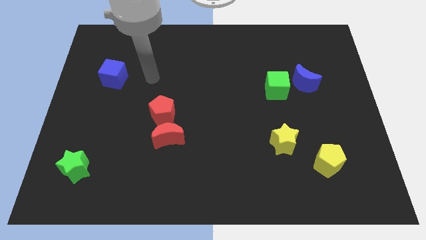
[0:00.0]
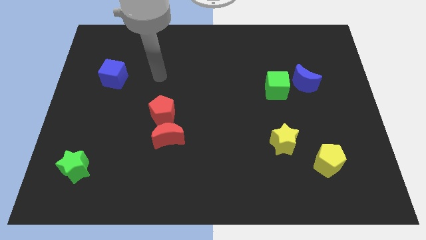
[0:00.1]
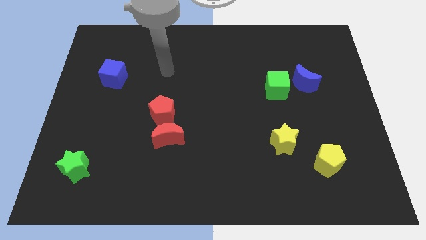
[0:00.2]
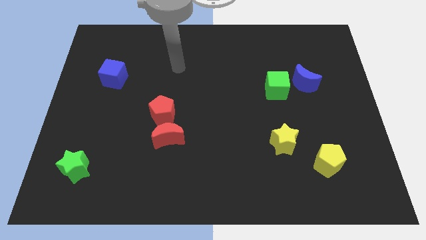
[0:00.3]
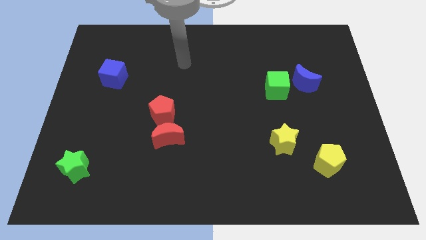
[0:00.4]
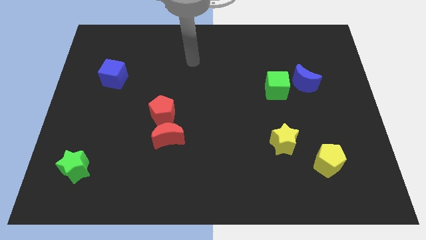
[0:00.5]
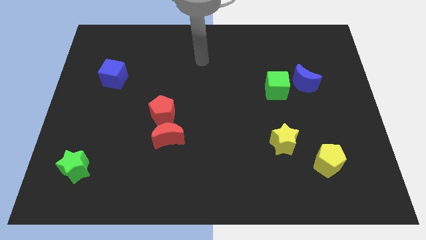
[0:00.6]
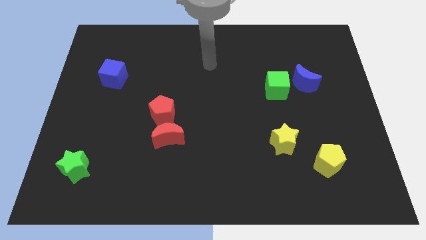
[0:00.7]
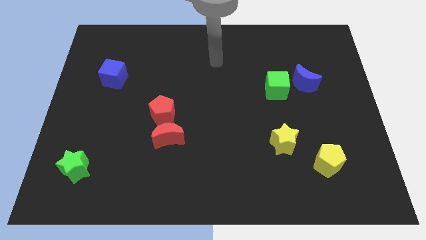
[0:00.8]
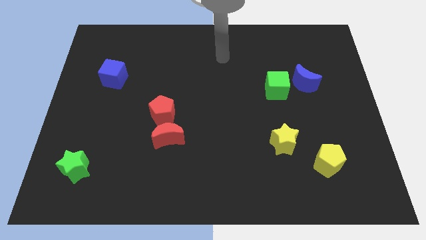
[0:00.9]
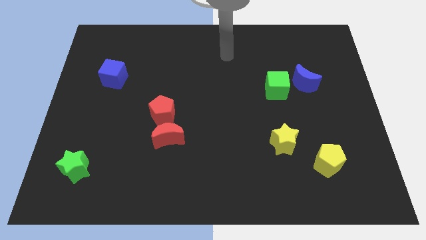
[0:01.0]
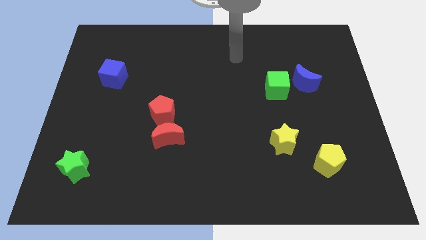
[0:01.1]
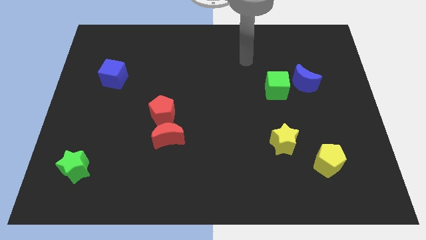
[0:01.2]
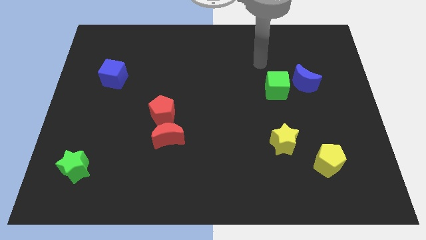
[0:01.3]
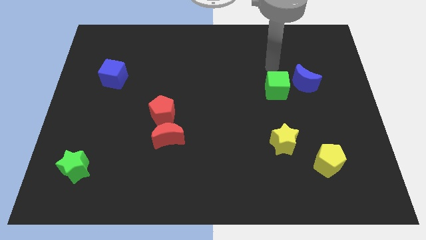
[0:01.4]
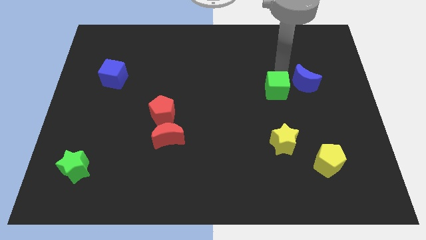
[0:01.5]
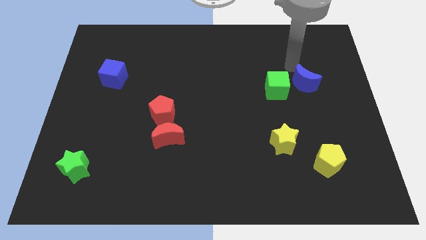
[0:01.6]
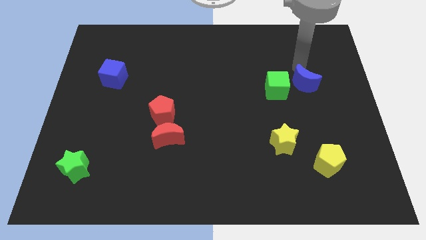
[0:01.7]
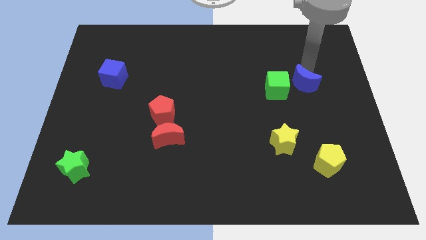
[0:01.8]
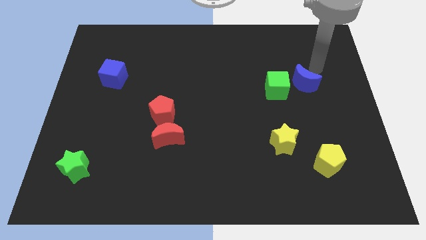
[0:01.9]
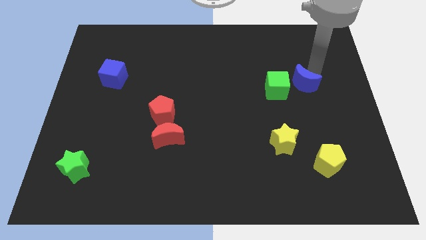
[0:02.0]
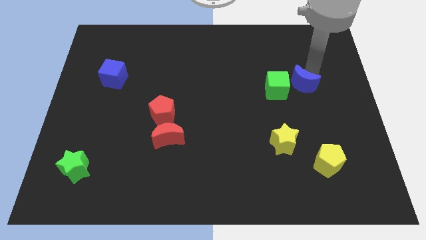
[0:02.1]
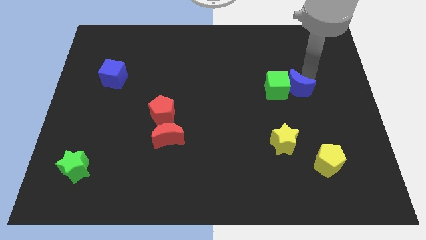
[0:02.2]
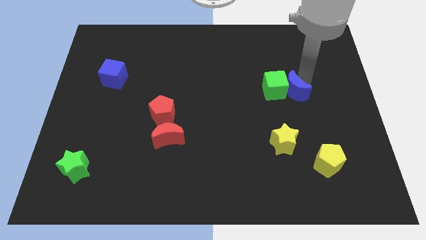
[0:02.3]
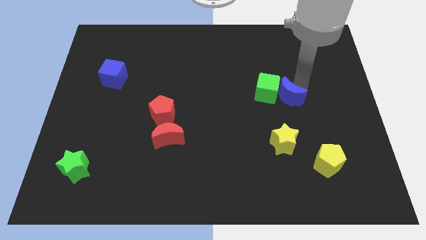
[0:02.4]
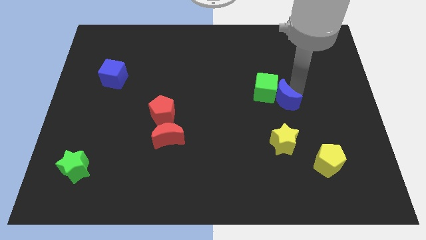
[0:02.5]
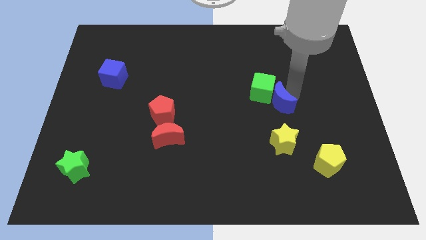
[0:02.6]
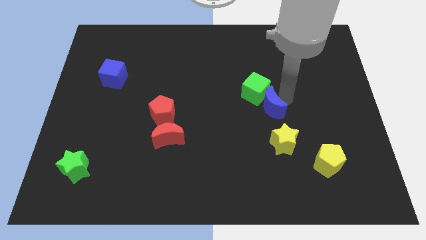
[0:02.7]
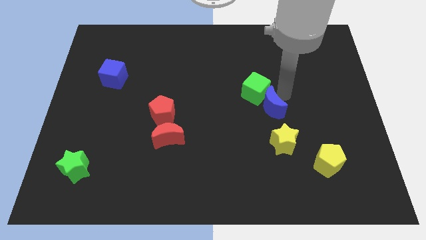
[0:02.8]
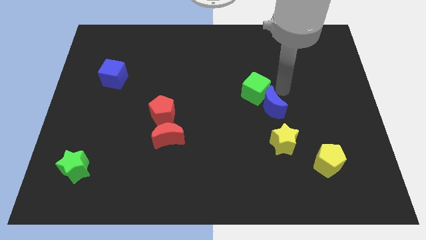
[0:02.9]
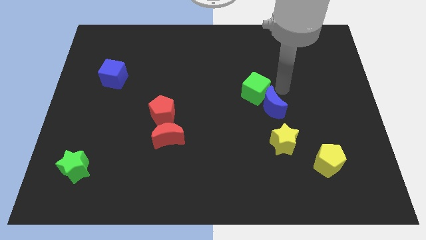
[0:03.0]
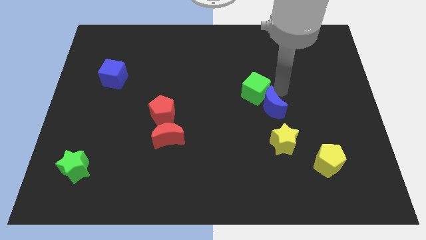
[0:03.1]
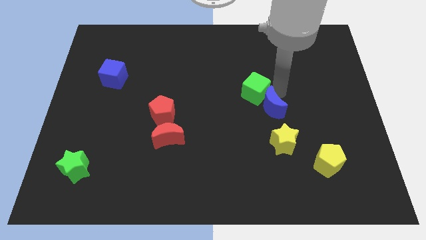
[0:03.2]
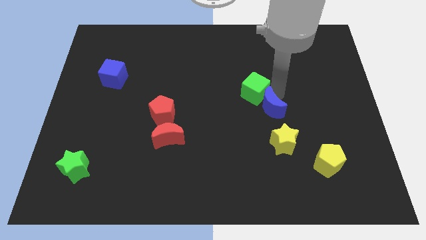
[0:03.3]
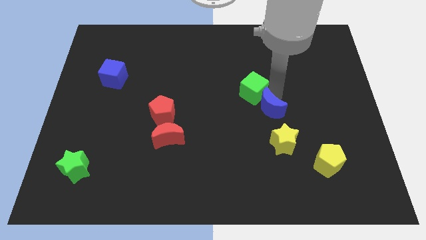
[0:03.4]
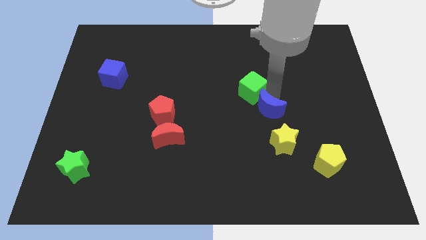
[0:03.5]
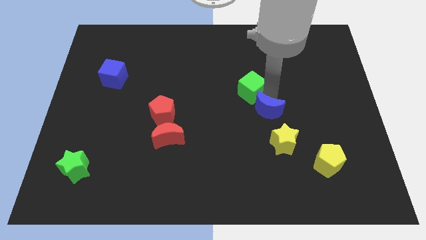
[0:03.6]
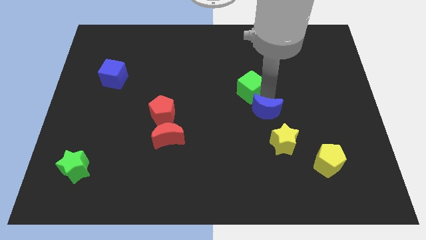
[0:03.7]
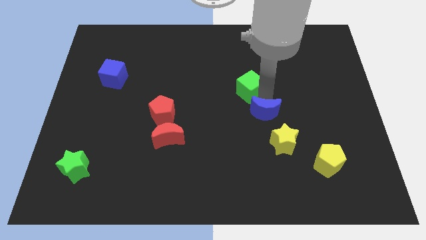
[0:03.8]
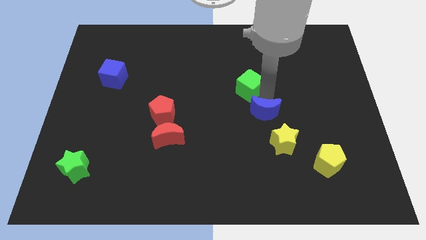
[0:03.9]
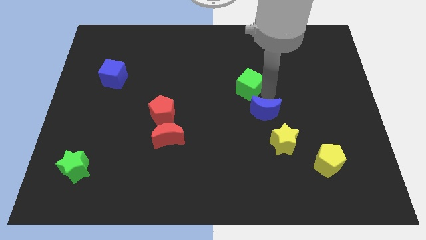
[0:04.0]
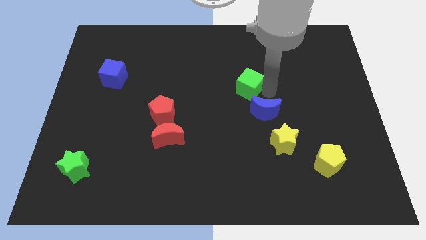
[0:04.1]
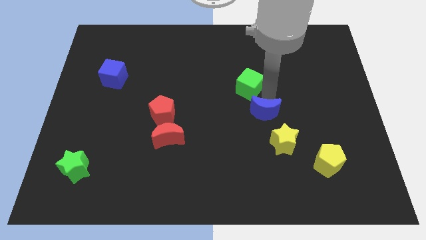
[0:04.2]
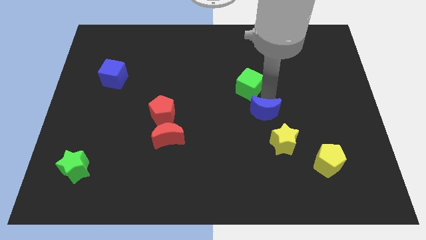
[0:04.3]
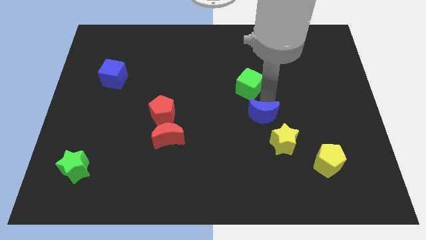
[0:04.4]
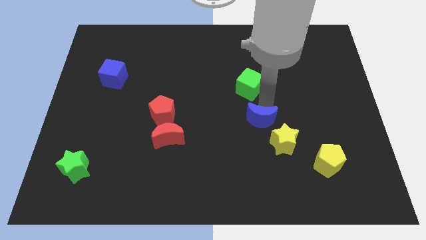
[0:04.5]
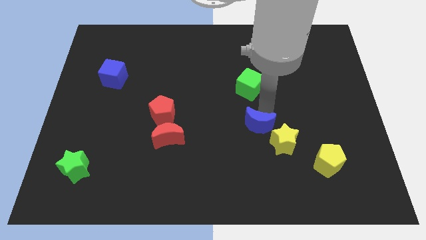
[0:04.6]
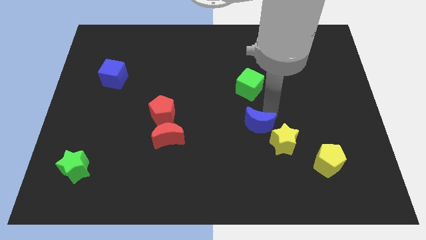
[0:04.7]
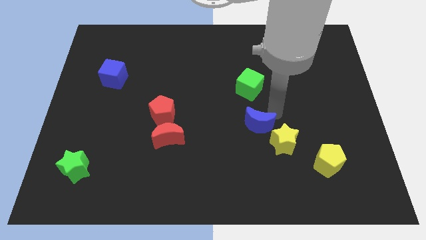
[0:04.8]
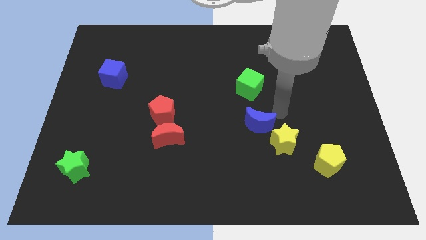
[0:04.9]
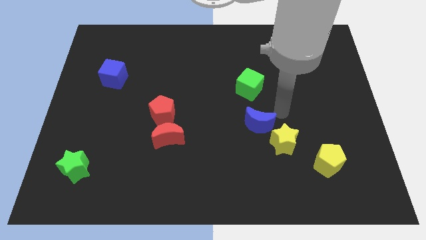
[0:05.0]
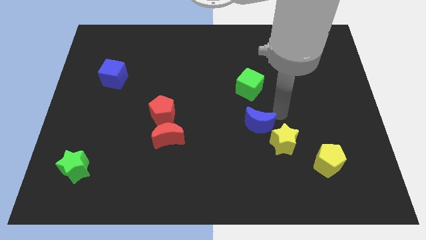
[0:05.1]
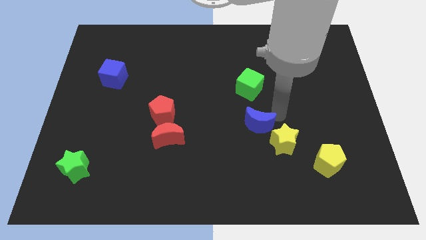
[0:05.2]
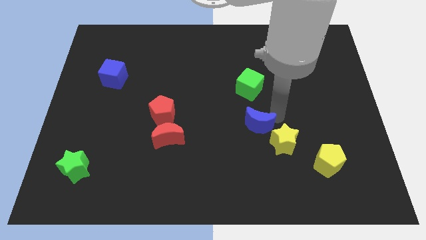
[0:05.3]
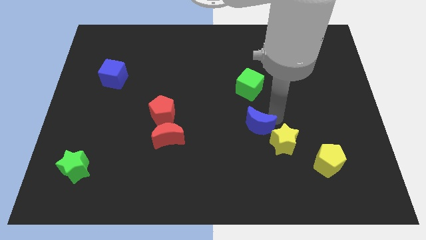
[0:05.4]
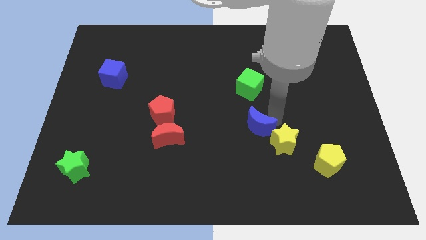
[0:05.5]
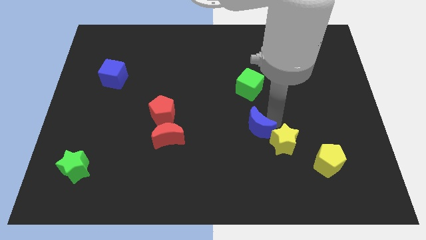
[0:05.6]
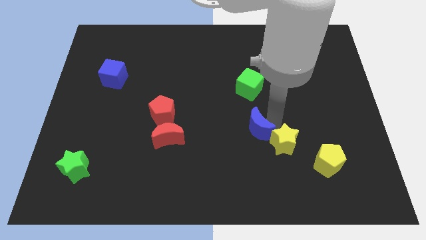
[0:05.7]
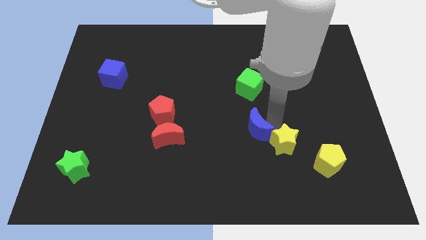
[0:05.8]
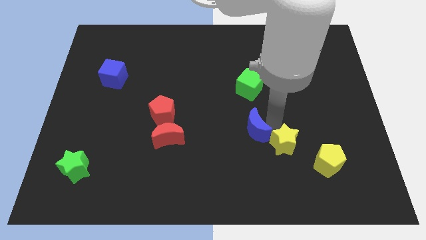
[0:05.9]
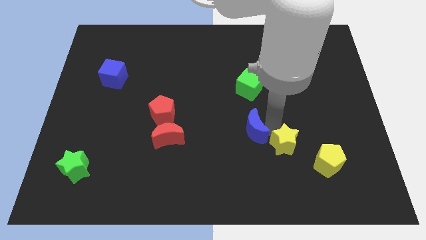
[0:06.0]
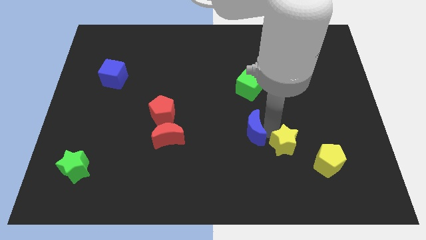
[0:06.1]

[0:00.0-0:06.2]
move the blue moon down and to the left diagonally

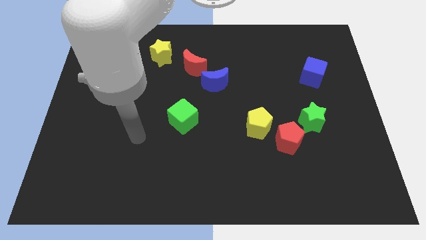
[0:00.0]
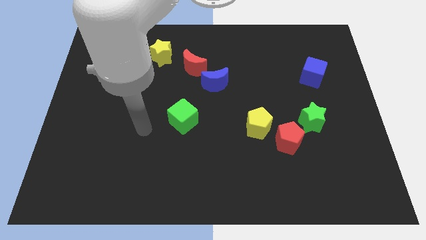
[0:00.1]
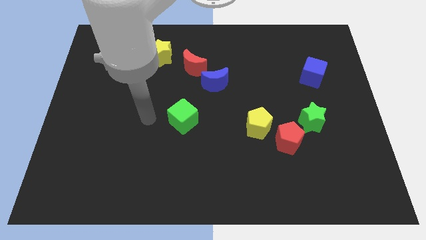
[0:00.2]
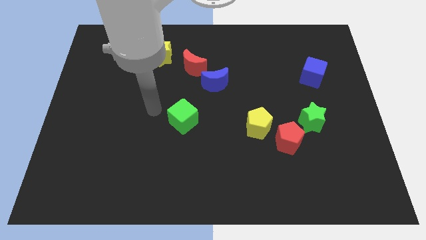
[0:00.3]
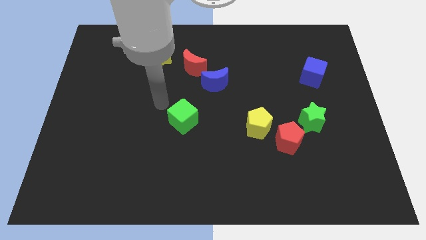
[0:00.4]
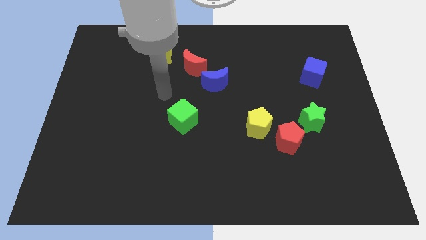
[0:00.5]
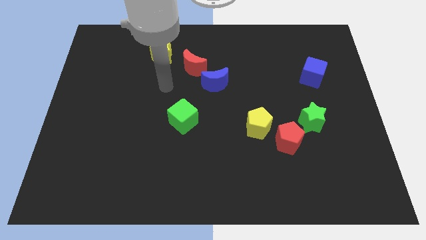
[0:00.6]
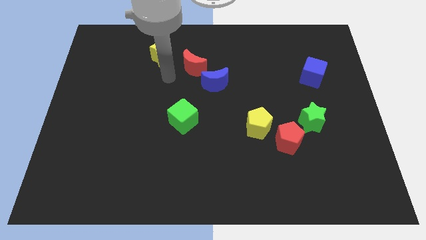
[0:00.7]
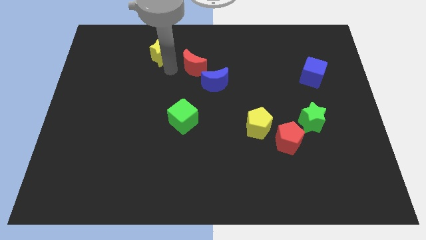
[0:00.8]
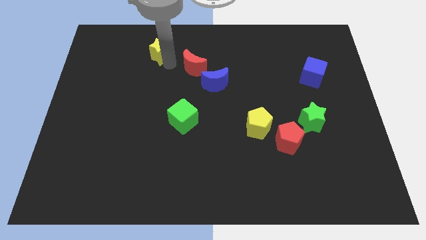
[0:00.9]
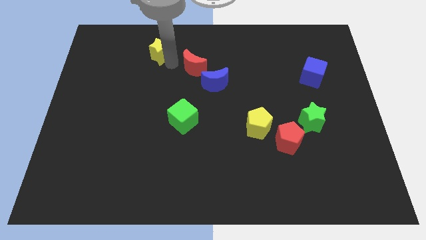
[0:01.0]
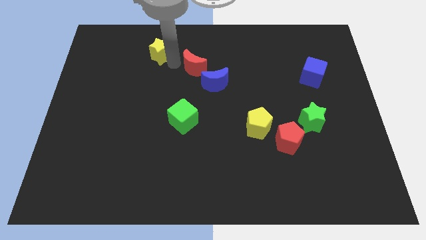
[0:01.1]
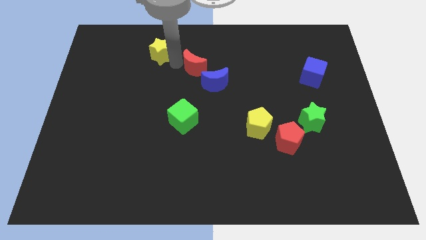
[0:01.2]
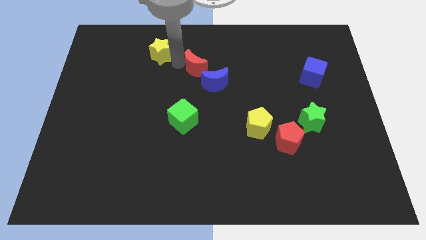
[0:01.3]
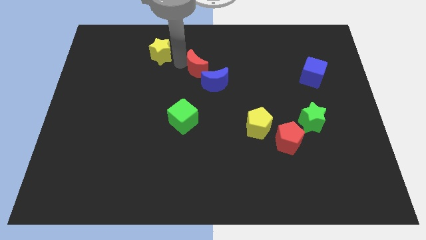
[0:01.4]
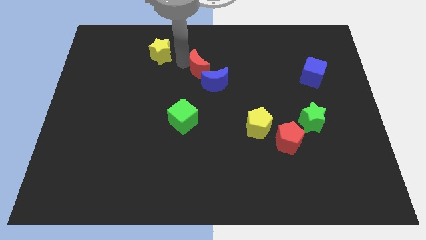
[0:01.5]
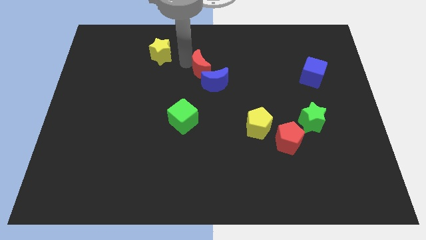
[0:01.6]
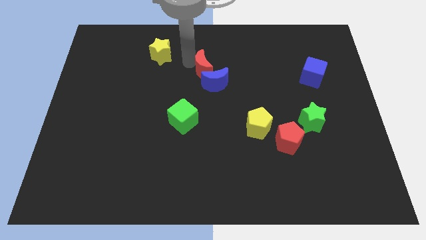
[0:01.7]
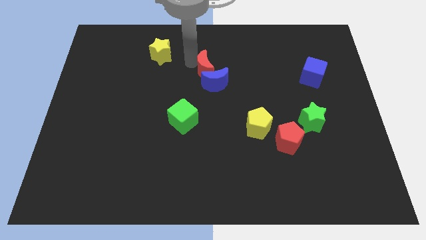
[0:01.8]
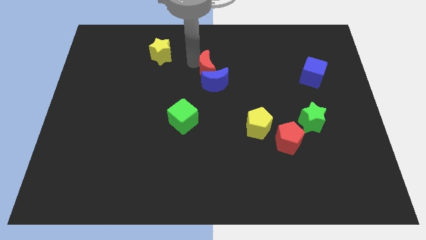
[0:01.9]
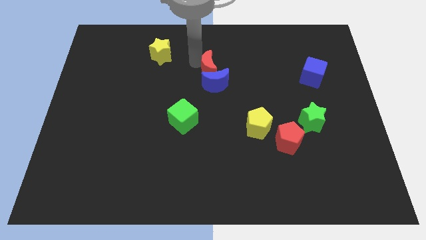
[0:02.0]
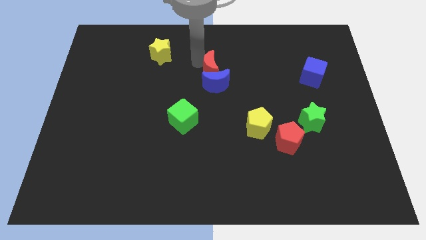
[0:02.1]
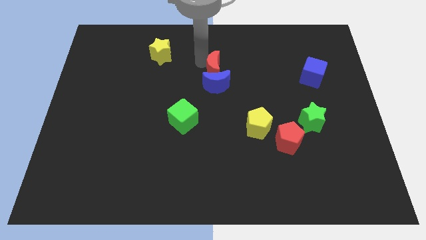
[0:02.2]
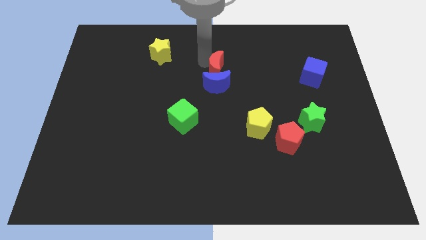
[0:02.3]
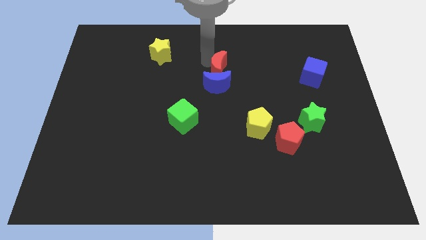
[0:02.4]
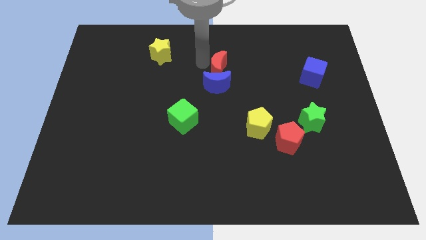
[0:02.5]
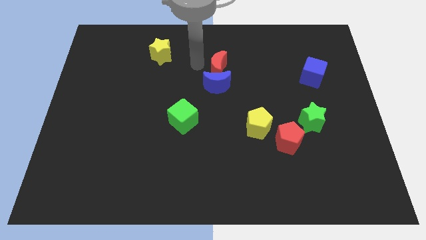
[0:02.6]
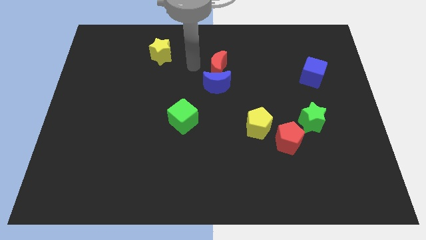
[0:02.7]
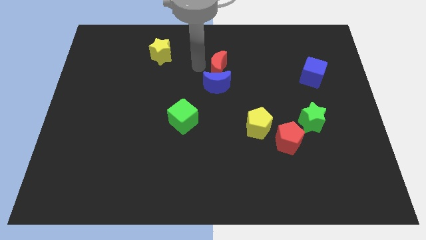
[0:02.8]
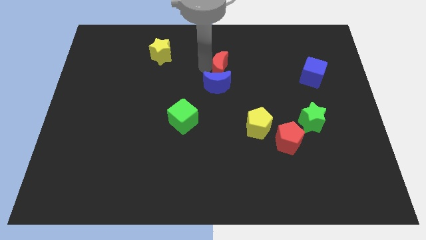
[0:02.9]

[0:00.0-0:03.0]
push the red moon to the right somewhat
